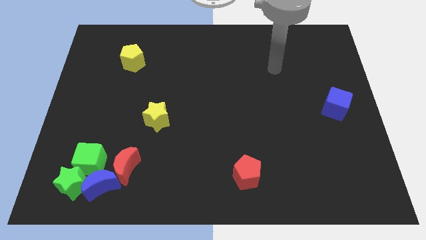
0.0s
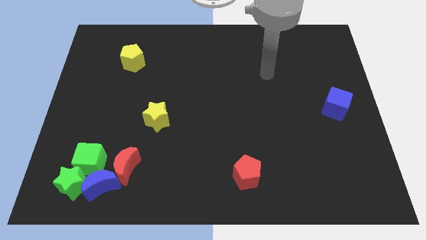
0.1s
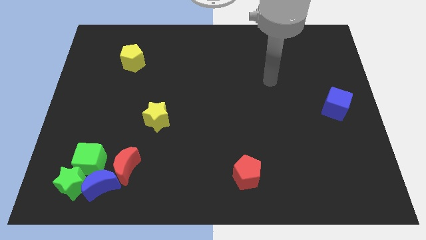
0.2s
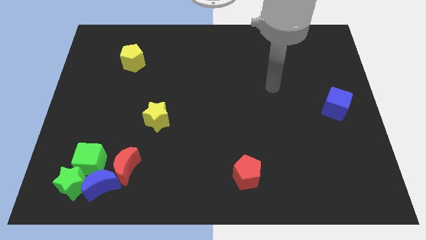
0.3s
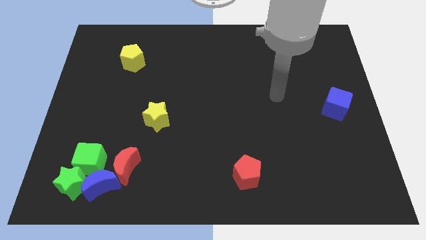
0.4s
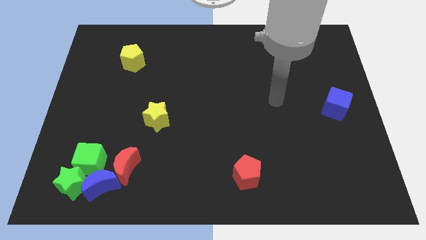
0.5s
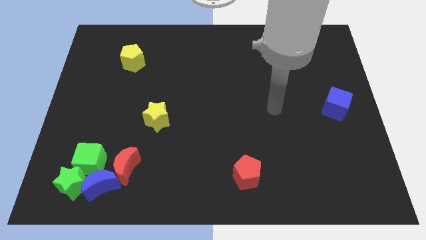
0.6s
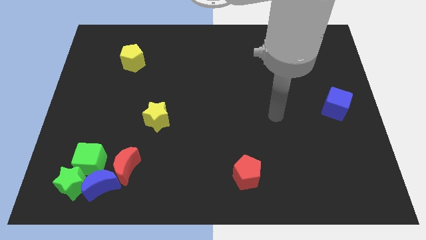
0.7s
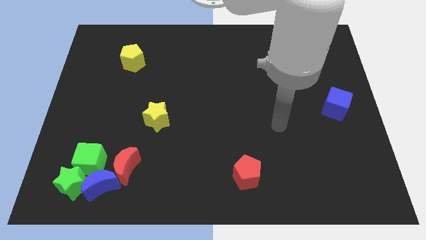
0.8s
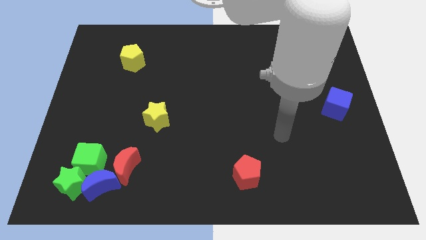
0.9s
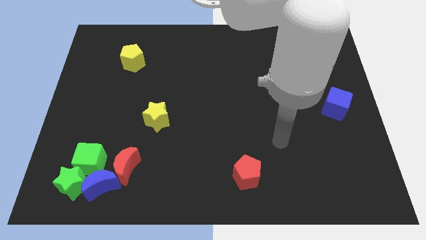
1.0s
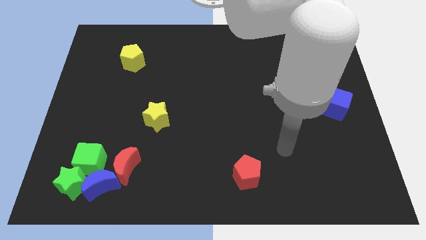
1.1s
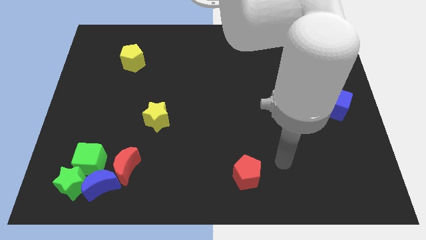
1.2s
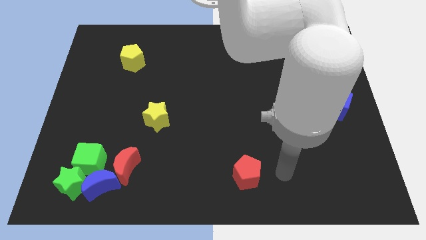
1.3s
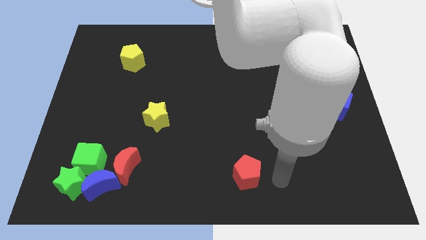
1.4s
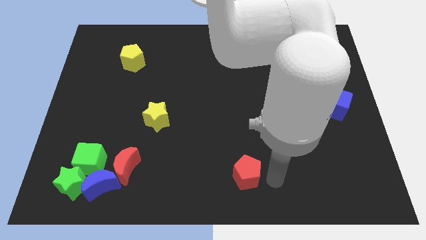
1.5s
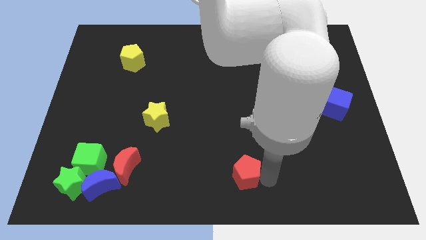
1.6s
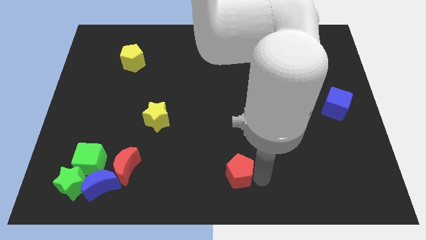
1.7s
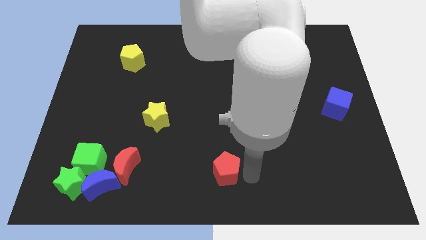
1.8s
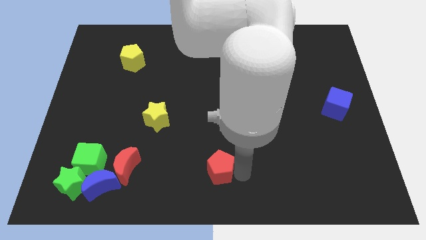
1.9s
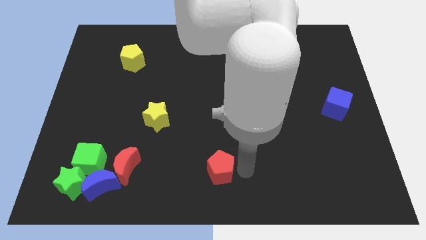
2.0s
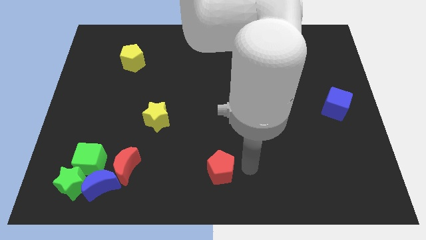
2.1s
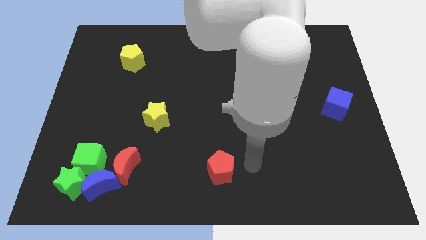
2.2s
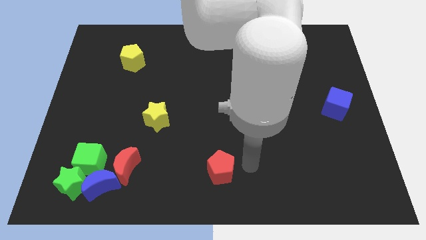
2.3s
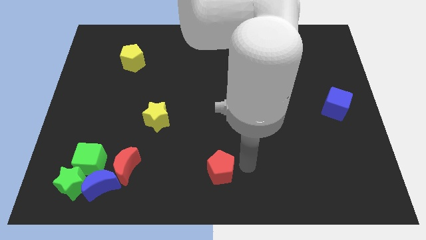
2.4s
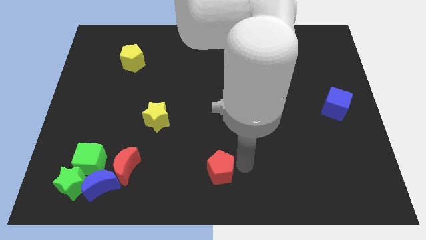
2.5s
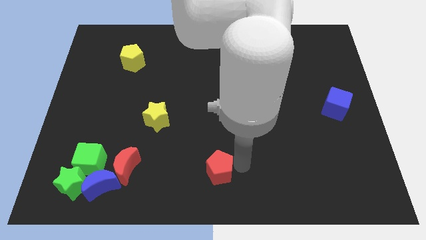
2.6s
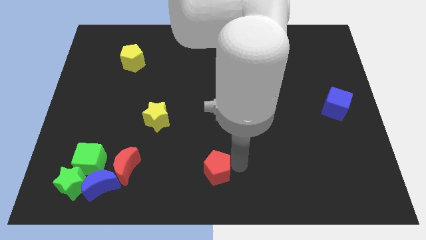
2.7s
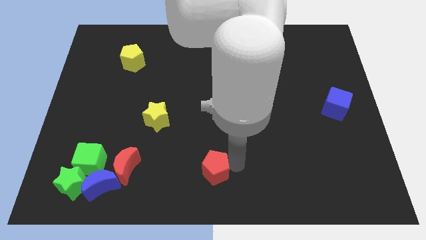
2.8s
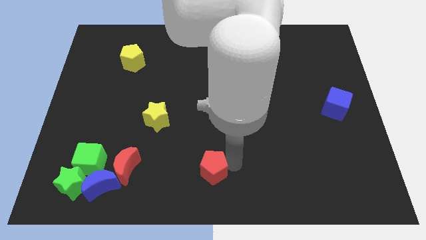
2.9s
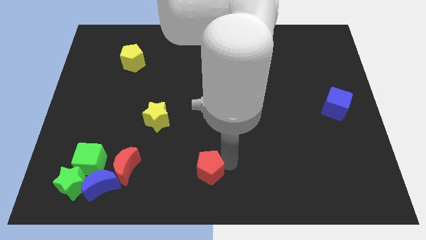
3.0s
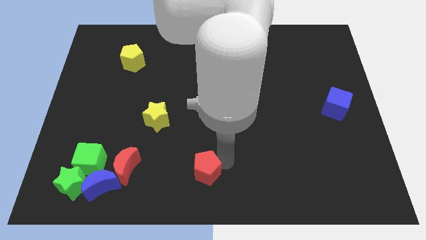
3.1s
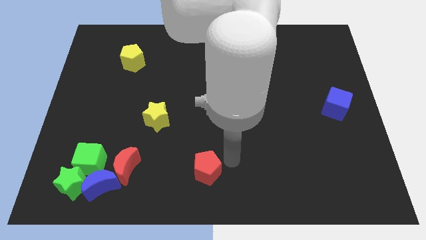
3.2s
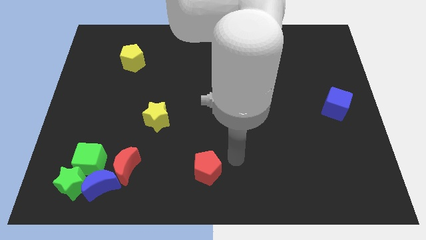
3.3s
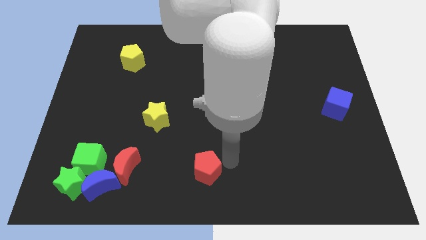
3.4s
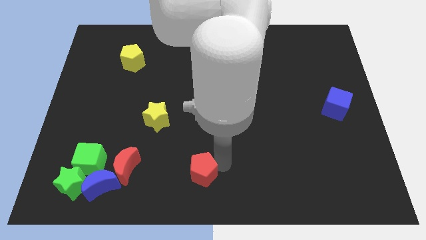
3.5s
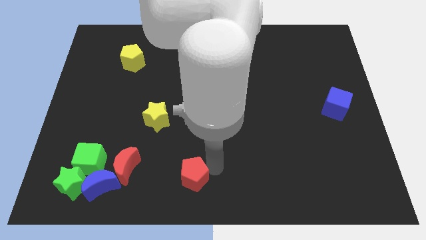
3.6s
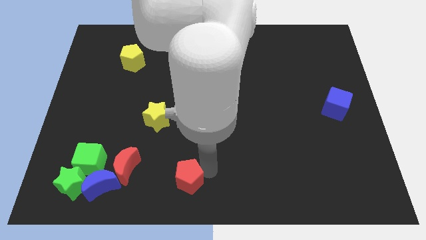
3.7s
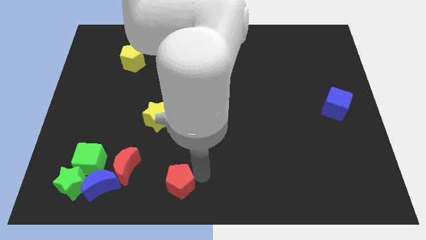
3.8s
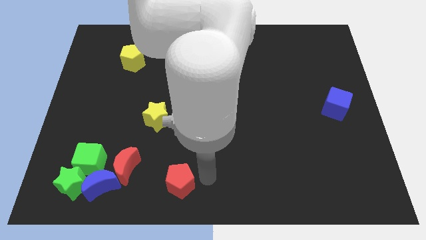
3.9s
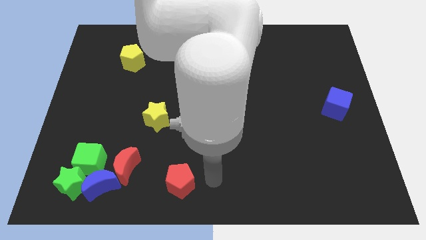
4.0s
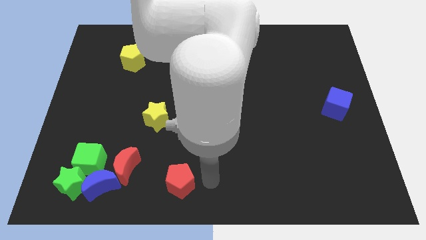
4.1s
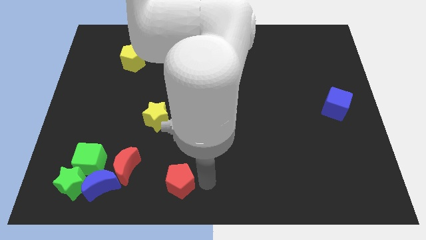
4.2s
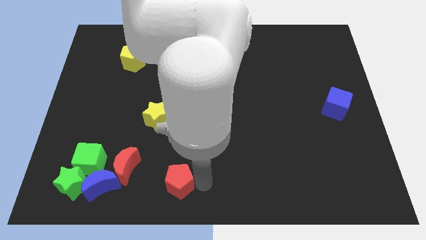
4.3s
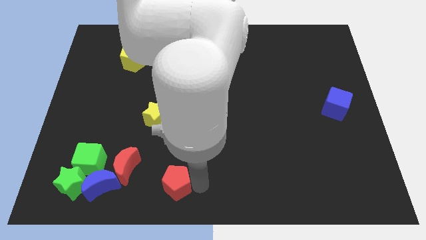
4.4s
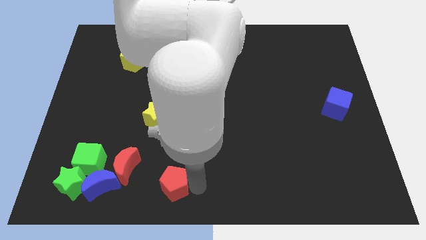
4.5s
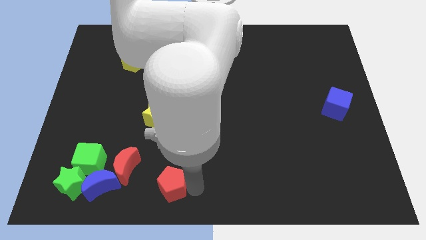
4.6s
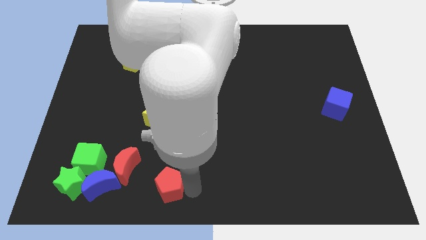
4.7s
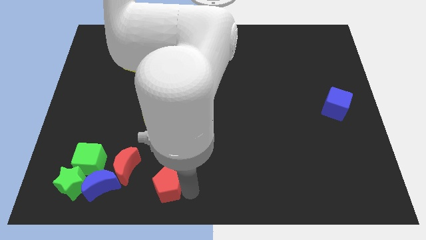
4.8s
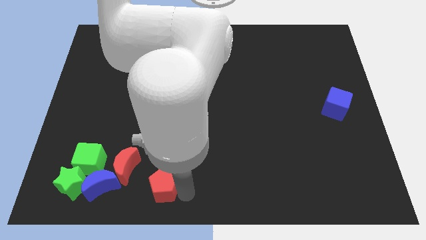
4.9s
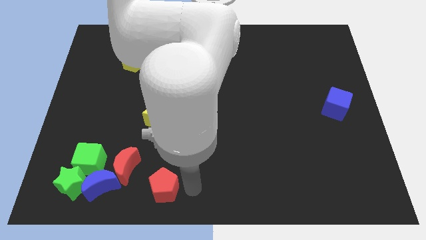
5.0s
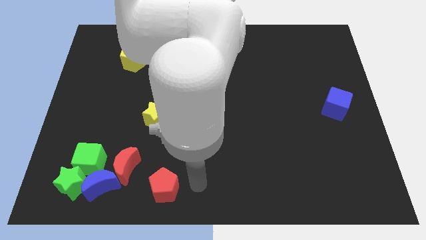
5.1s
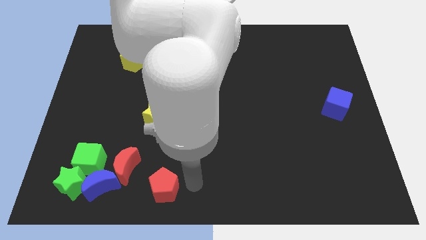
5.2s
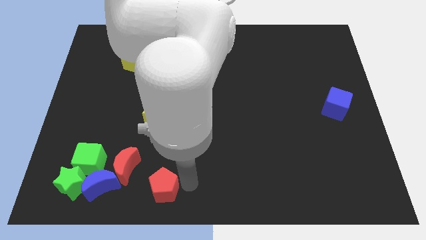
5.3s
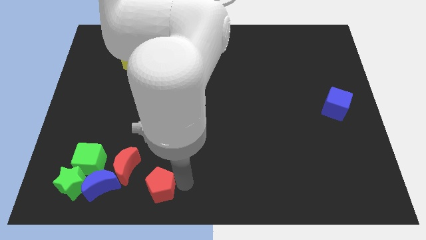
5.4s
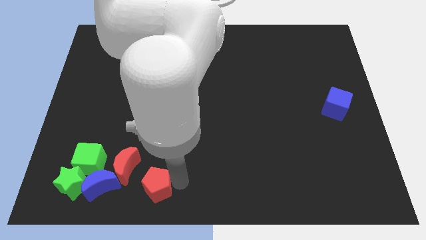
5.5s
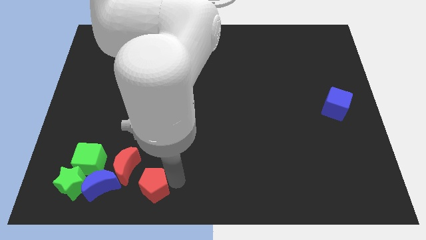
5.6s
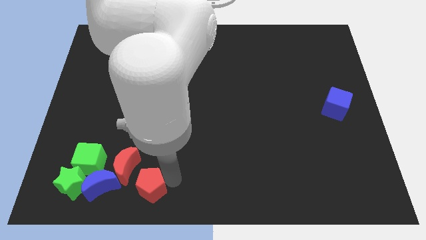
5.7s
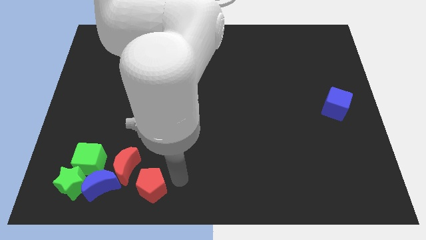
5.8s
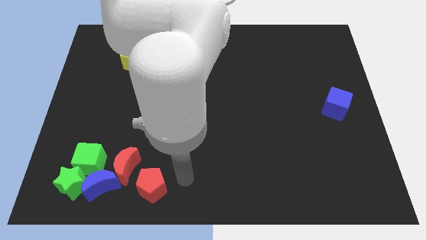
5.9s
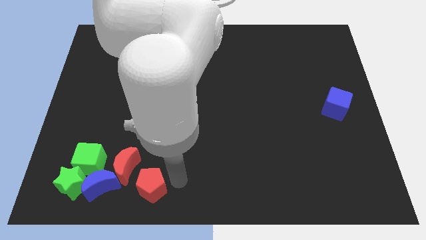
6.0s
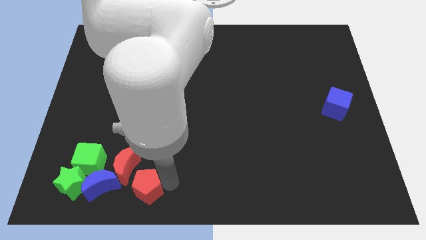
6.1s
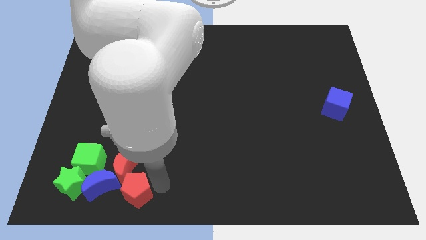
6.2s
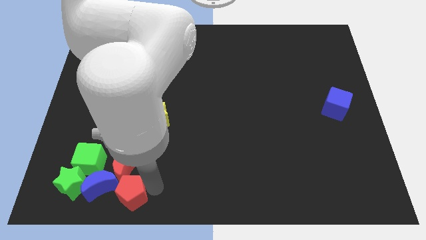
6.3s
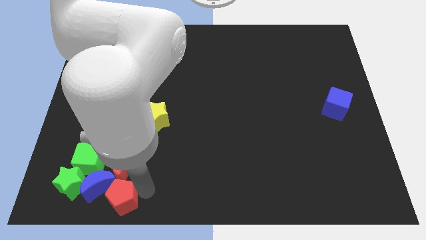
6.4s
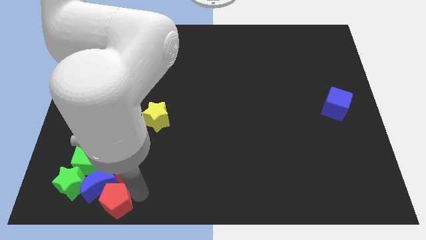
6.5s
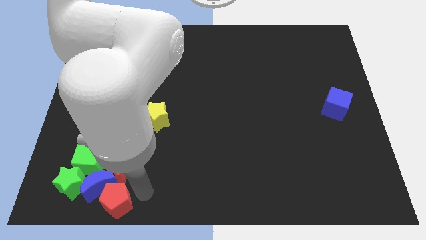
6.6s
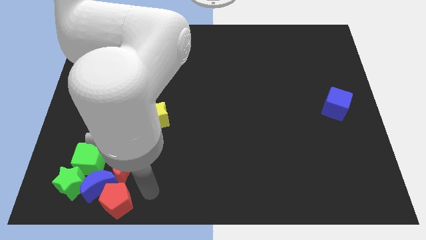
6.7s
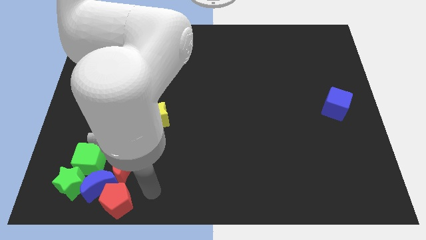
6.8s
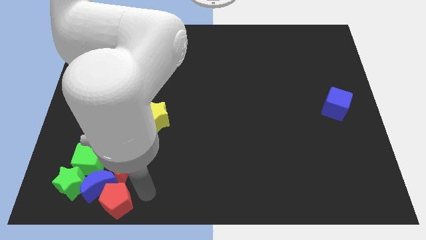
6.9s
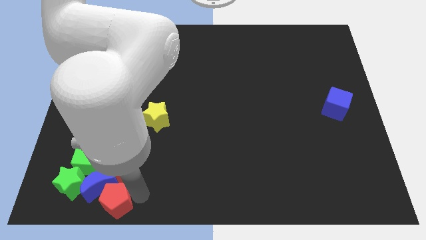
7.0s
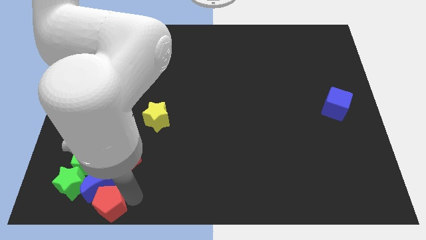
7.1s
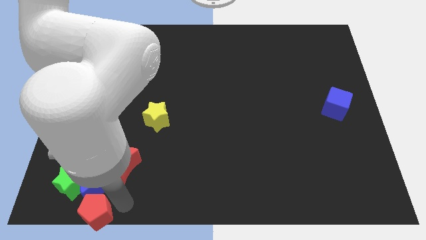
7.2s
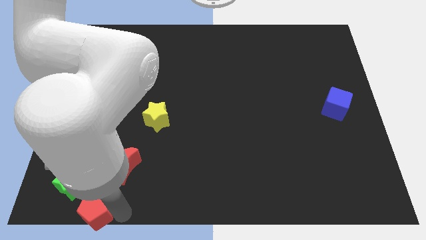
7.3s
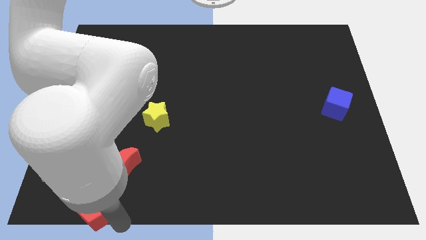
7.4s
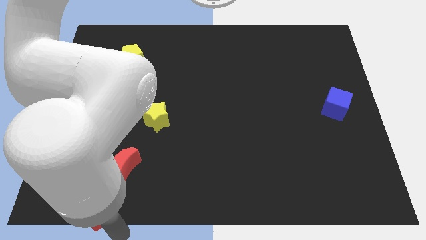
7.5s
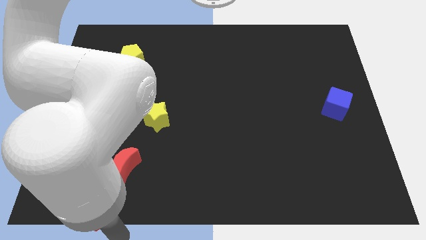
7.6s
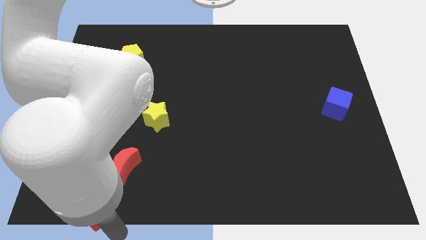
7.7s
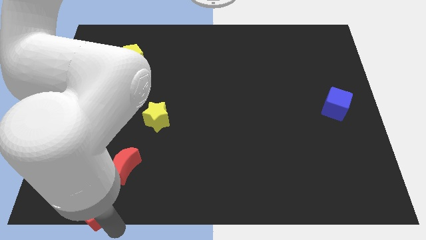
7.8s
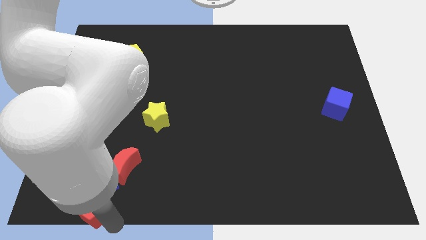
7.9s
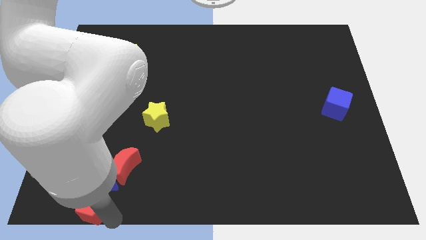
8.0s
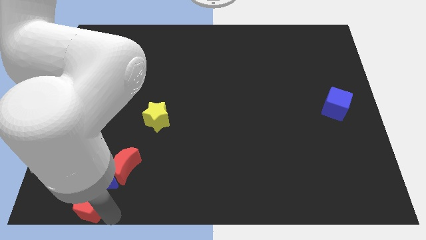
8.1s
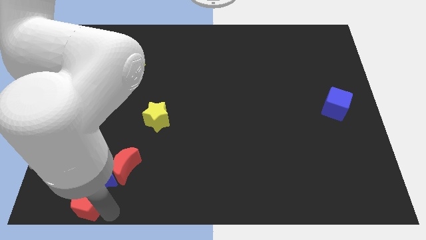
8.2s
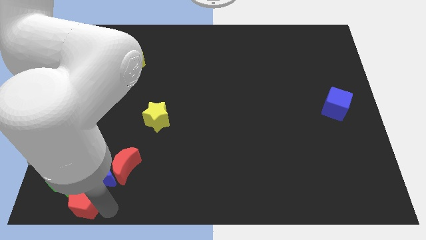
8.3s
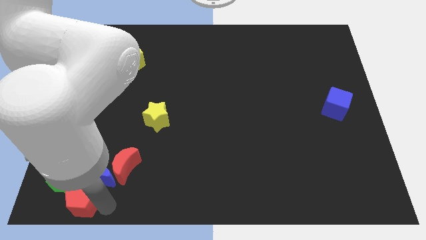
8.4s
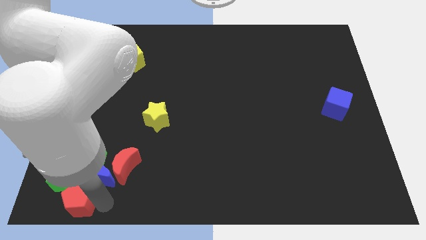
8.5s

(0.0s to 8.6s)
put the red pentagon towards the green star
